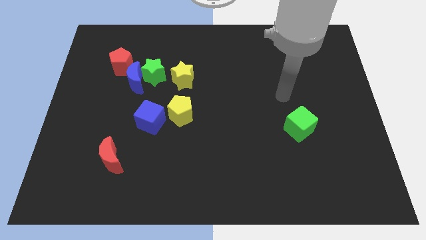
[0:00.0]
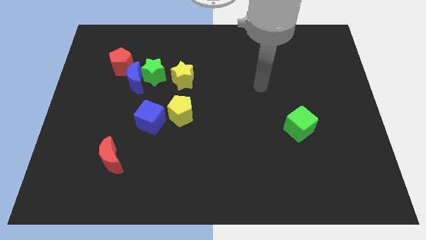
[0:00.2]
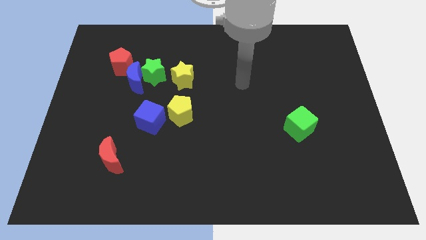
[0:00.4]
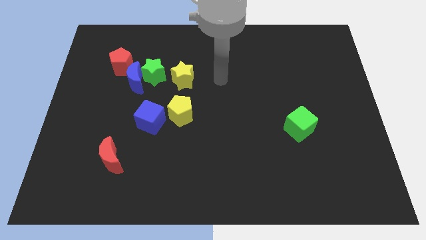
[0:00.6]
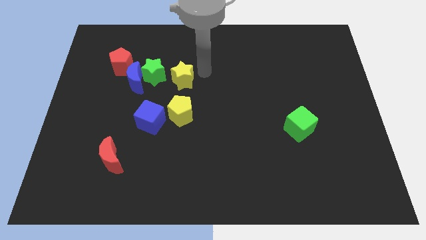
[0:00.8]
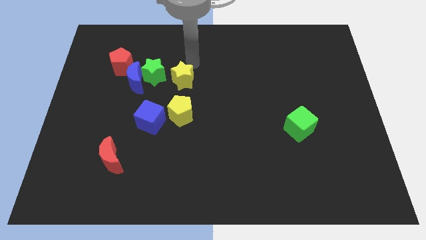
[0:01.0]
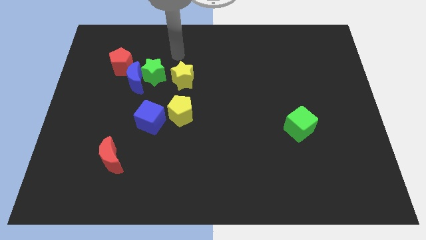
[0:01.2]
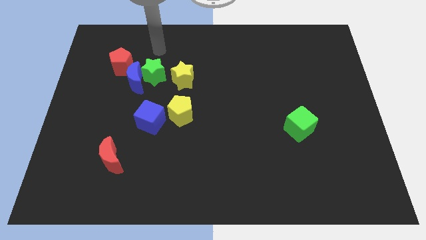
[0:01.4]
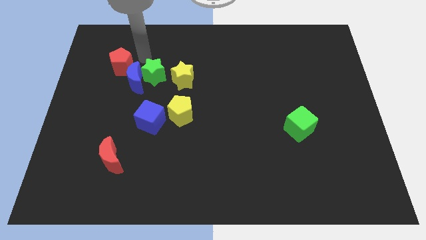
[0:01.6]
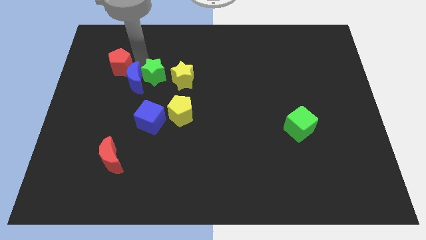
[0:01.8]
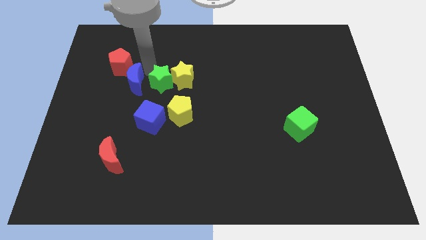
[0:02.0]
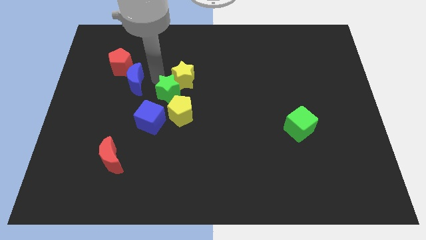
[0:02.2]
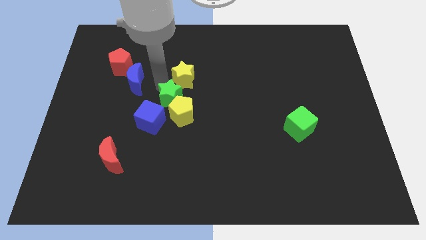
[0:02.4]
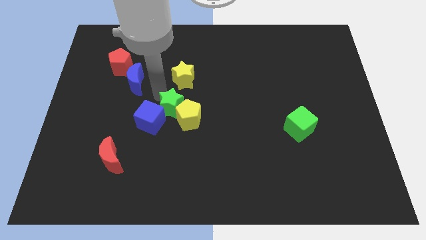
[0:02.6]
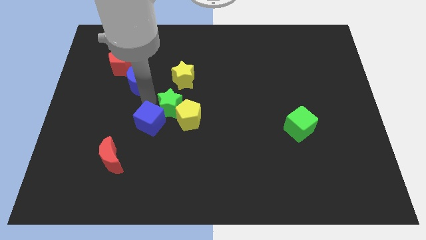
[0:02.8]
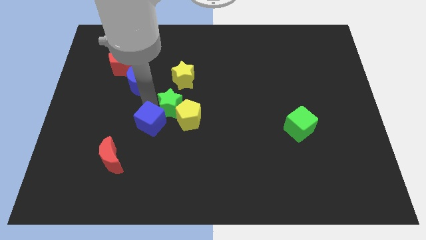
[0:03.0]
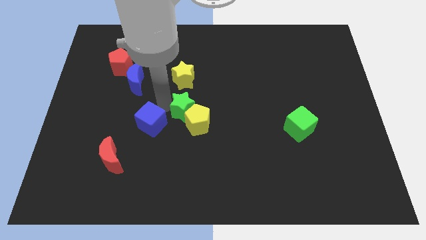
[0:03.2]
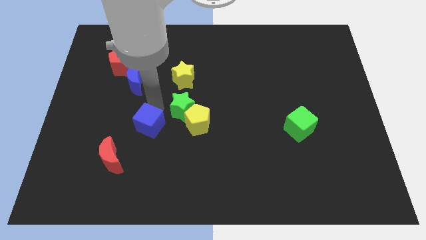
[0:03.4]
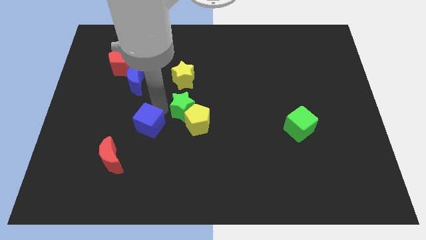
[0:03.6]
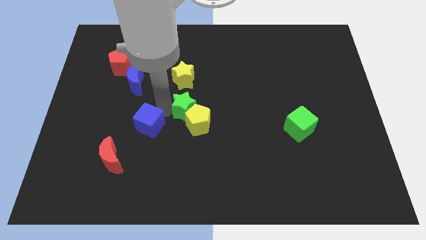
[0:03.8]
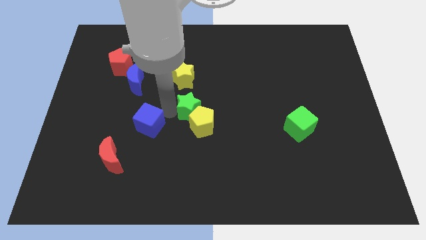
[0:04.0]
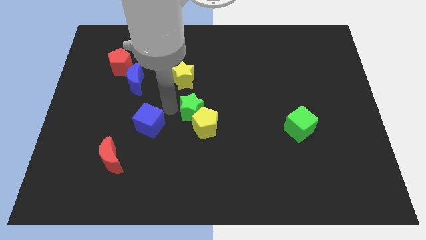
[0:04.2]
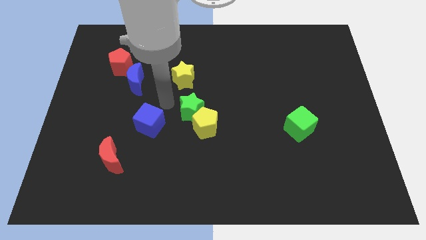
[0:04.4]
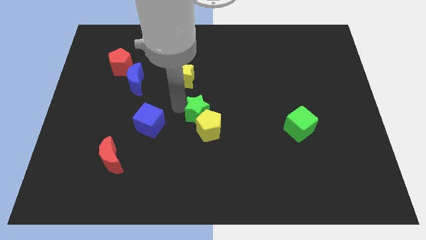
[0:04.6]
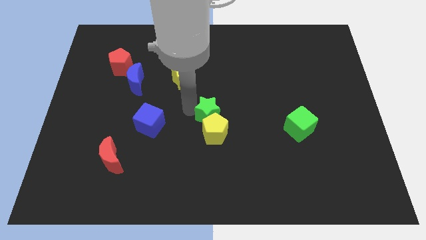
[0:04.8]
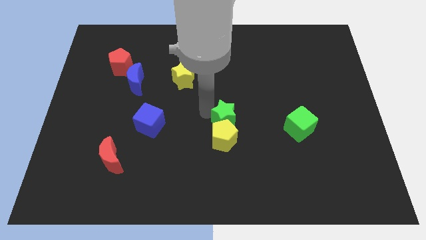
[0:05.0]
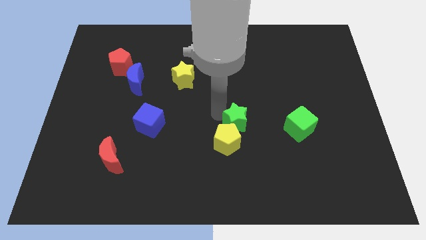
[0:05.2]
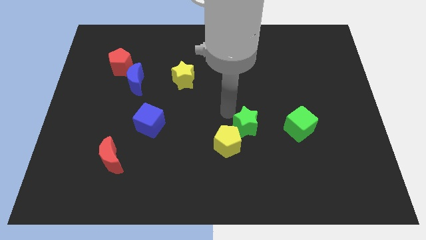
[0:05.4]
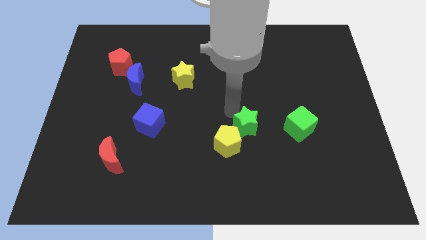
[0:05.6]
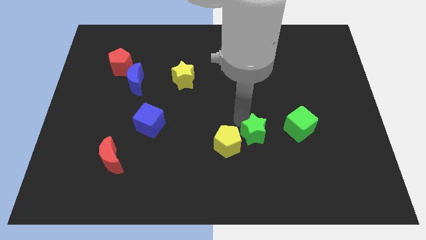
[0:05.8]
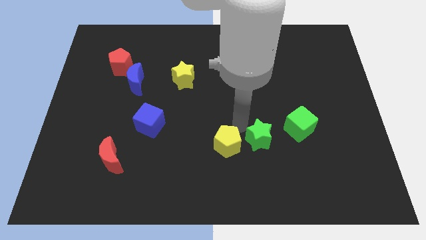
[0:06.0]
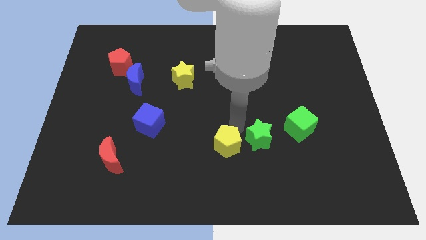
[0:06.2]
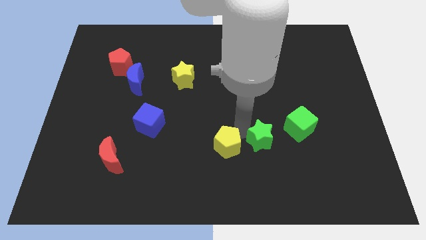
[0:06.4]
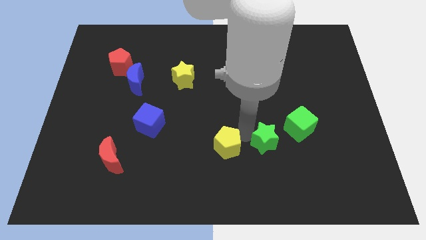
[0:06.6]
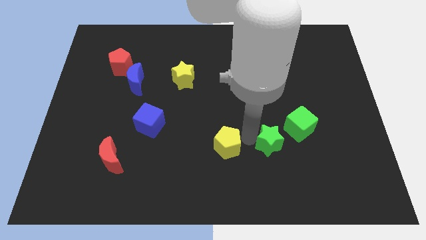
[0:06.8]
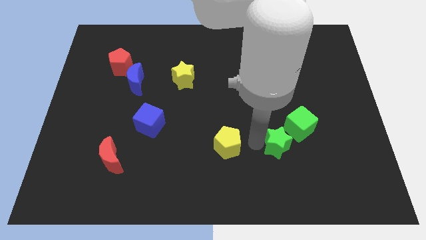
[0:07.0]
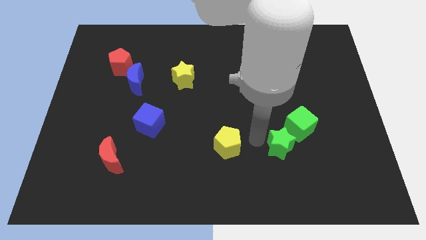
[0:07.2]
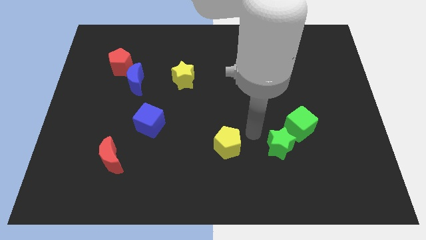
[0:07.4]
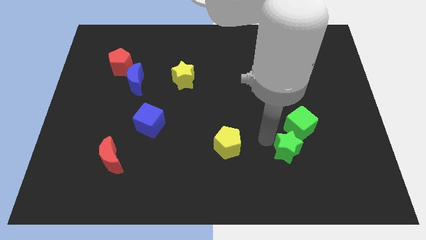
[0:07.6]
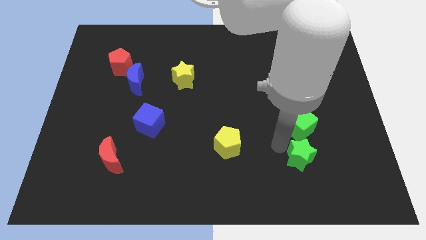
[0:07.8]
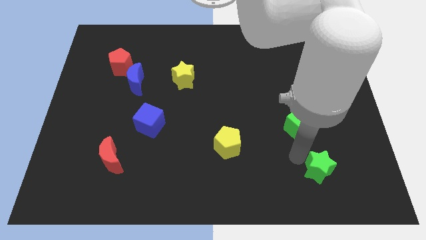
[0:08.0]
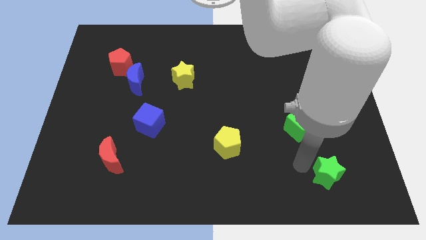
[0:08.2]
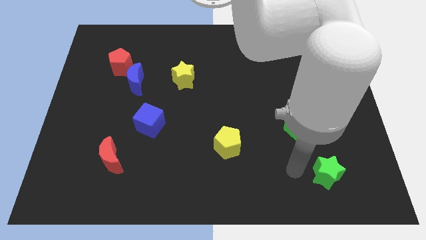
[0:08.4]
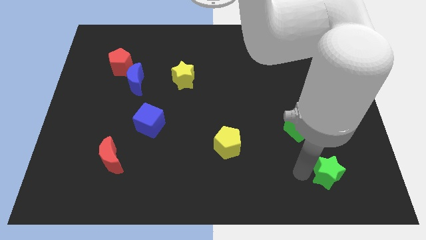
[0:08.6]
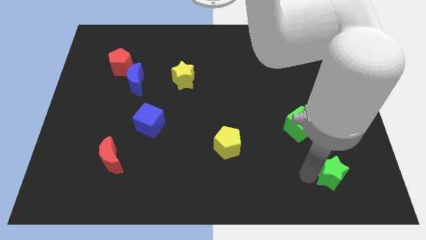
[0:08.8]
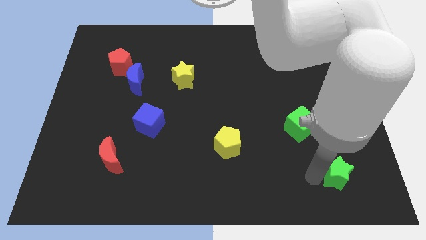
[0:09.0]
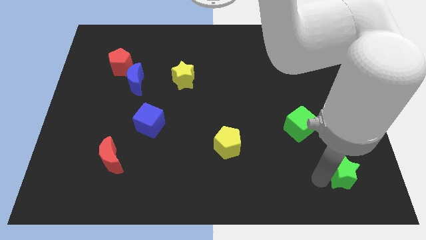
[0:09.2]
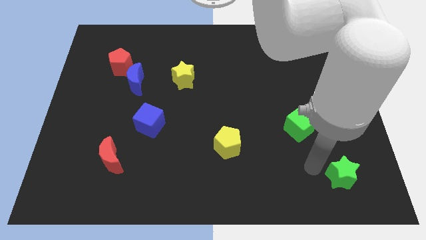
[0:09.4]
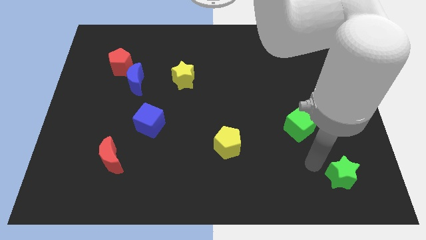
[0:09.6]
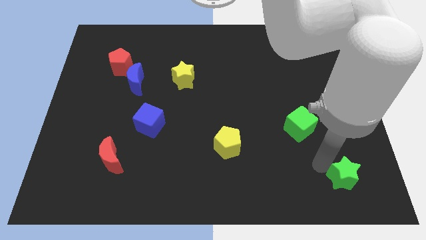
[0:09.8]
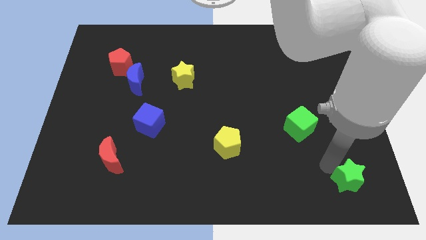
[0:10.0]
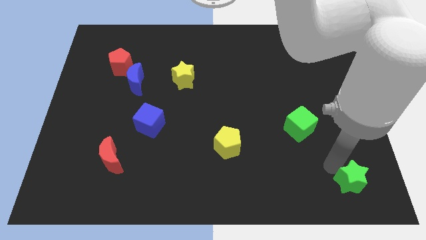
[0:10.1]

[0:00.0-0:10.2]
push the green star to the bottom right

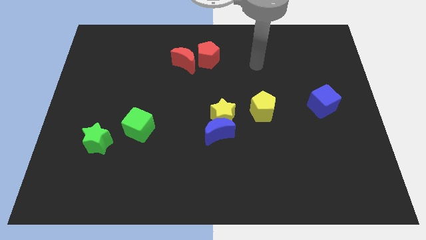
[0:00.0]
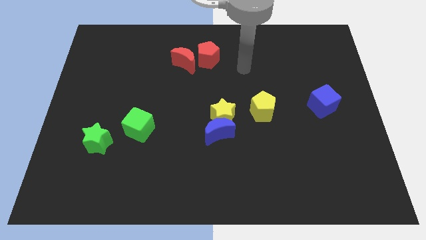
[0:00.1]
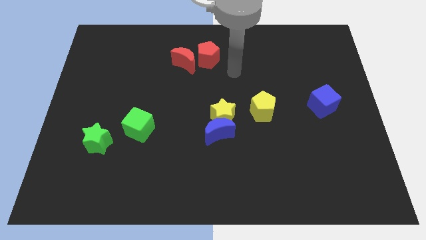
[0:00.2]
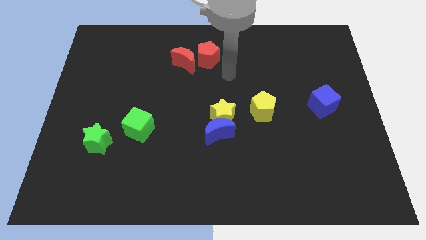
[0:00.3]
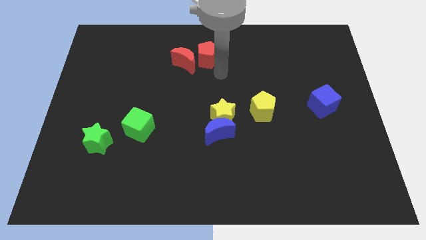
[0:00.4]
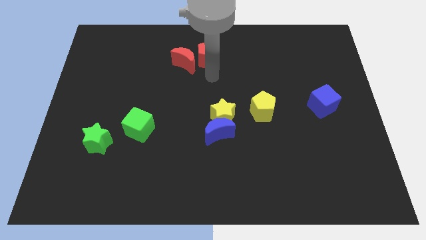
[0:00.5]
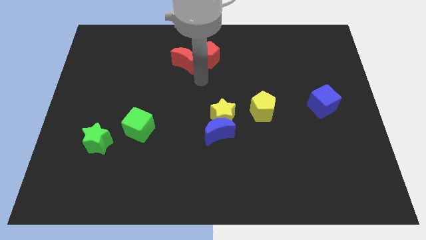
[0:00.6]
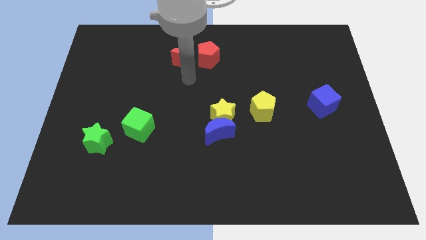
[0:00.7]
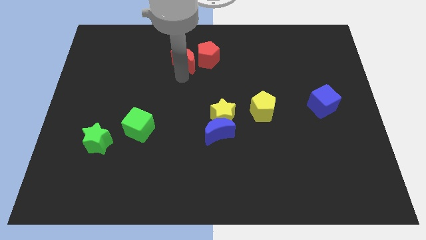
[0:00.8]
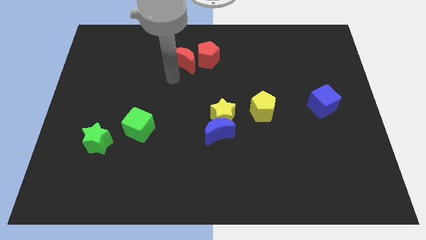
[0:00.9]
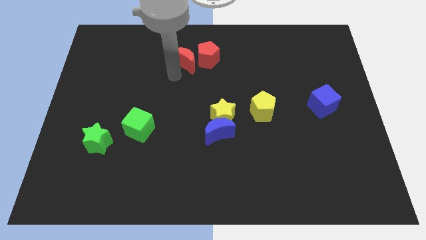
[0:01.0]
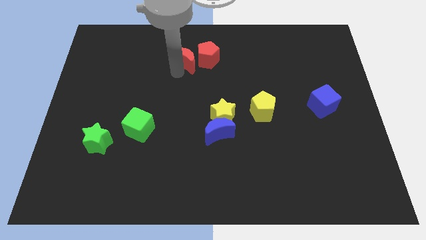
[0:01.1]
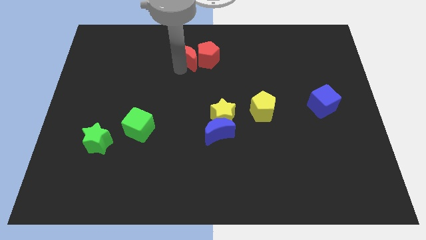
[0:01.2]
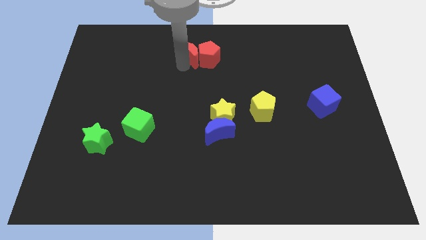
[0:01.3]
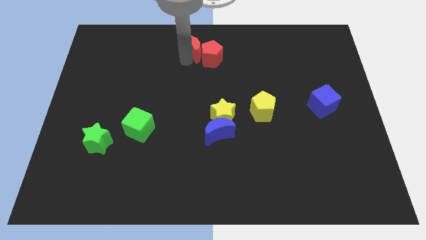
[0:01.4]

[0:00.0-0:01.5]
move the red moon to the towards your base

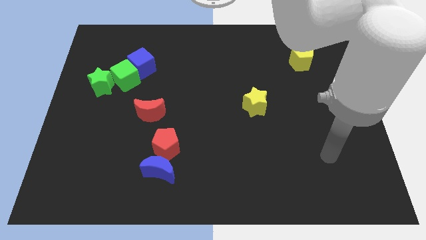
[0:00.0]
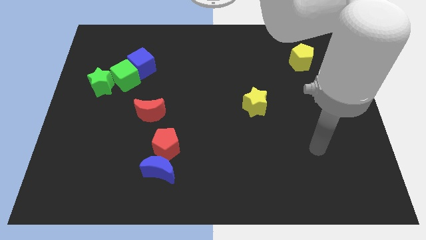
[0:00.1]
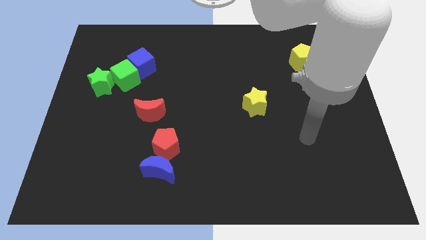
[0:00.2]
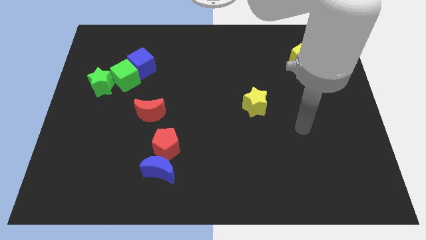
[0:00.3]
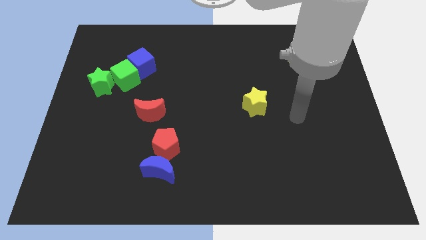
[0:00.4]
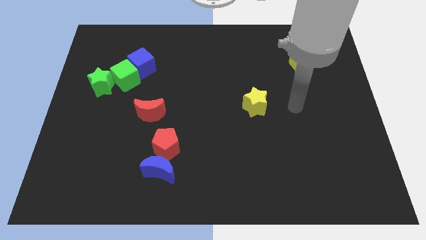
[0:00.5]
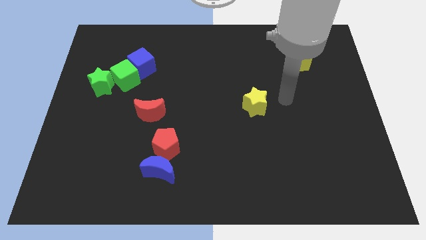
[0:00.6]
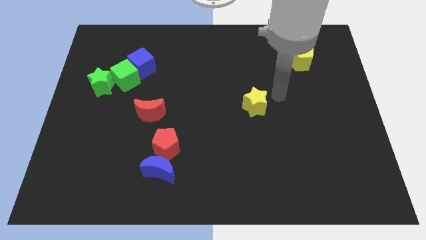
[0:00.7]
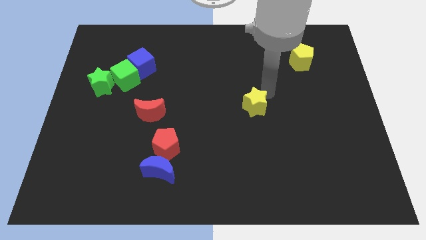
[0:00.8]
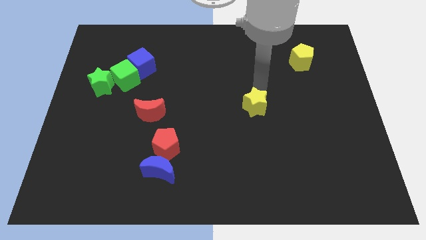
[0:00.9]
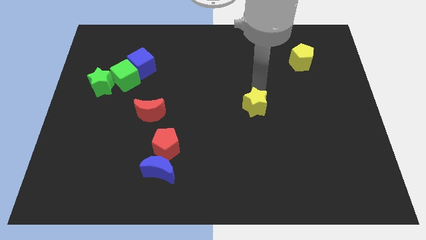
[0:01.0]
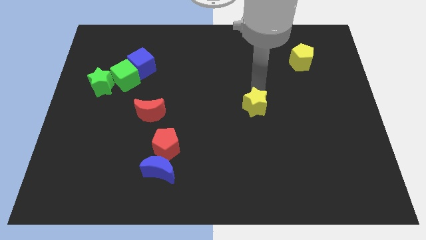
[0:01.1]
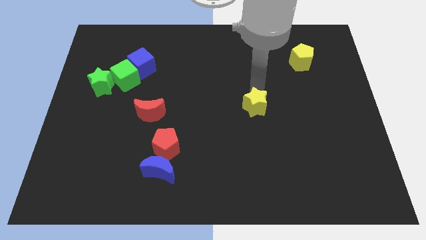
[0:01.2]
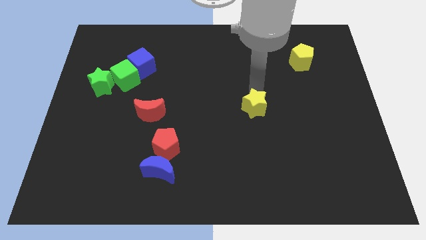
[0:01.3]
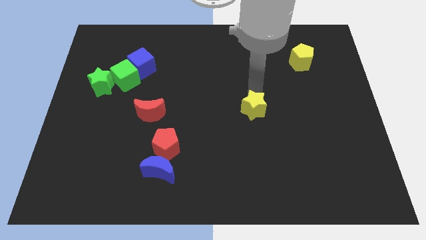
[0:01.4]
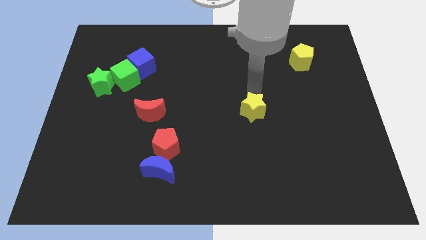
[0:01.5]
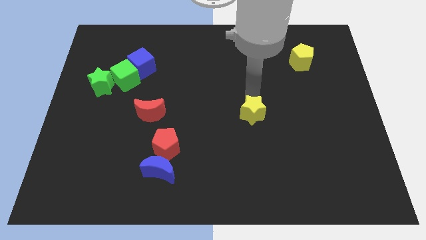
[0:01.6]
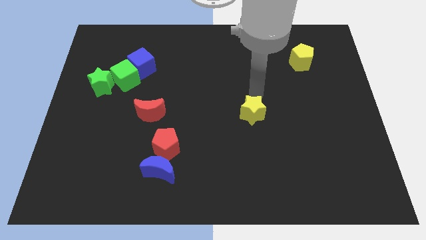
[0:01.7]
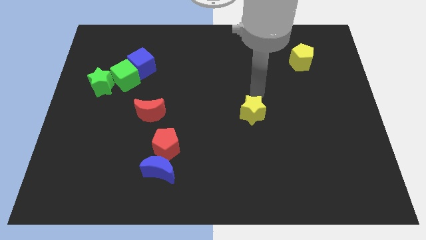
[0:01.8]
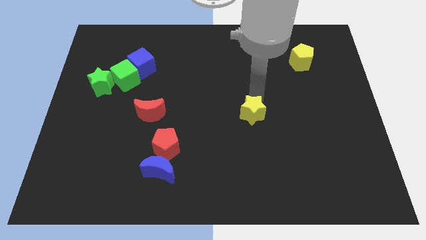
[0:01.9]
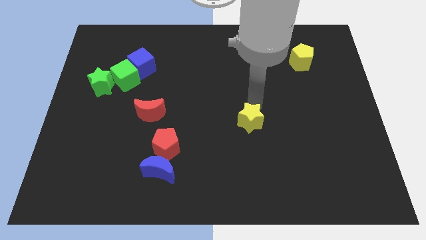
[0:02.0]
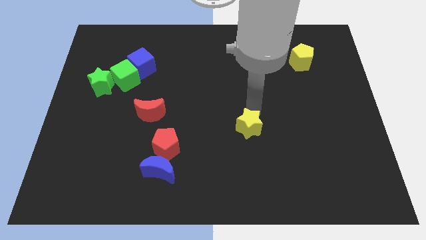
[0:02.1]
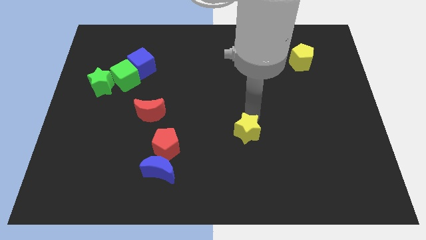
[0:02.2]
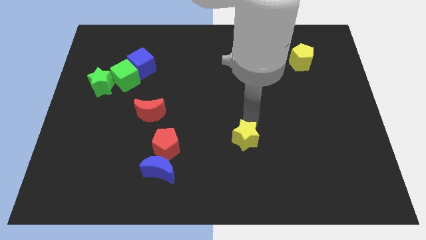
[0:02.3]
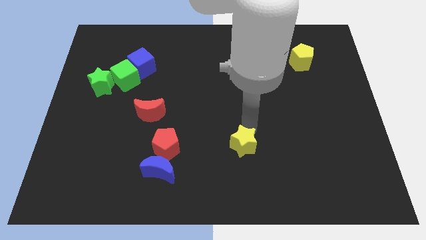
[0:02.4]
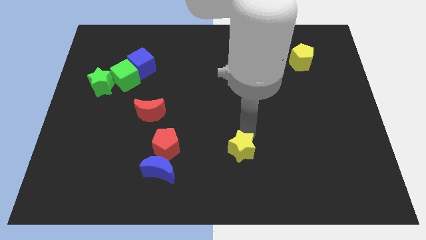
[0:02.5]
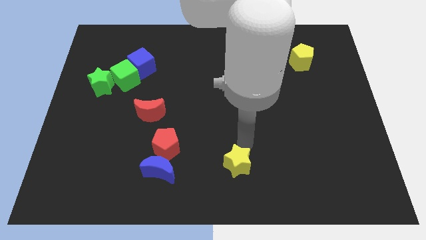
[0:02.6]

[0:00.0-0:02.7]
slide the yellow star to the bottom
